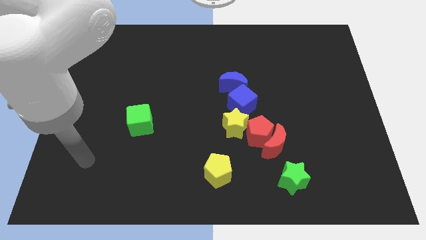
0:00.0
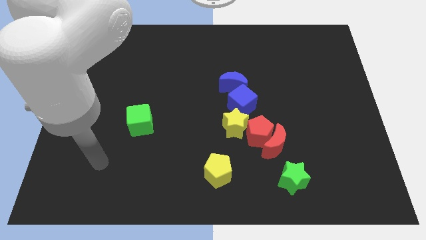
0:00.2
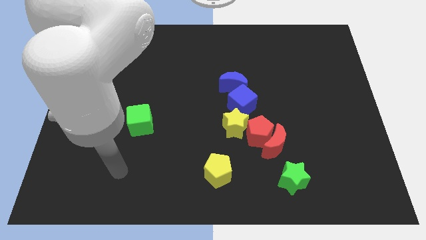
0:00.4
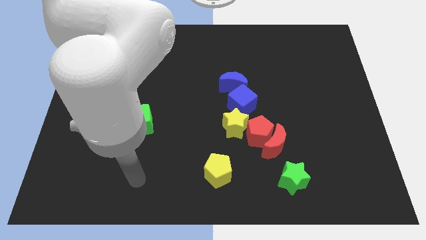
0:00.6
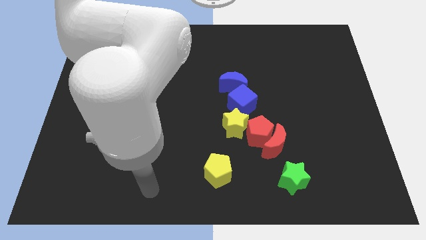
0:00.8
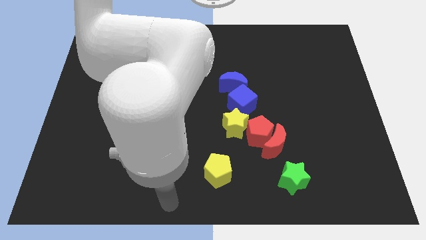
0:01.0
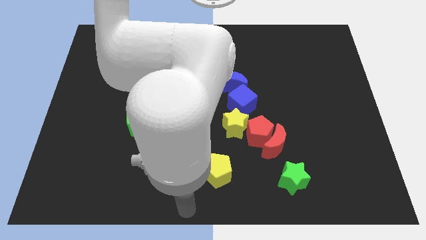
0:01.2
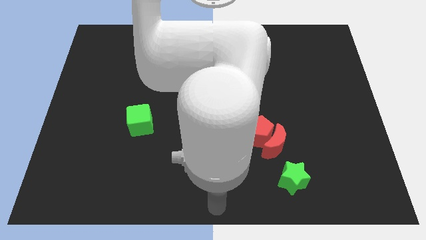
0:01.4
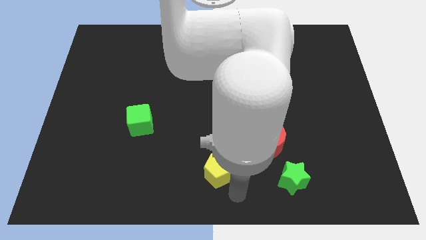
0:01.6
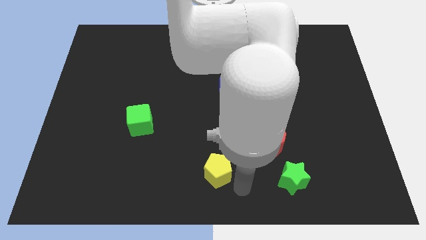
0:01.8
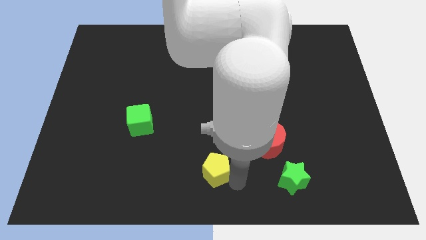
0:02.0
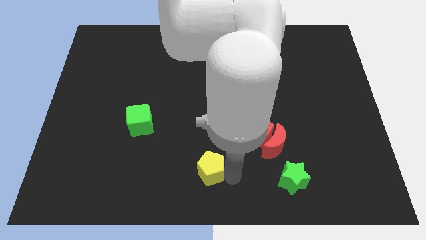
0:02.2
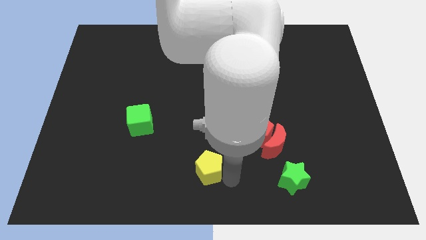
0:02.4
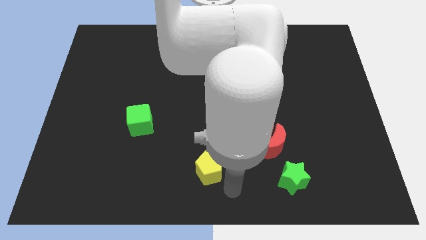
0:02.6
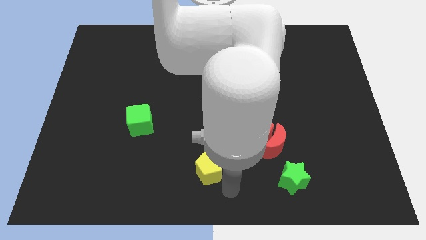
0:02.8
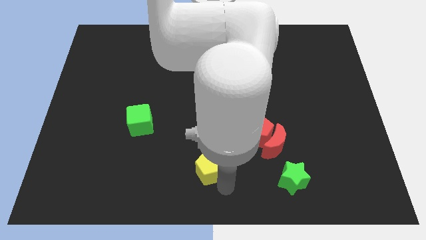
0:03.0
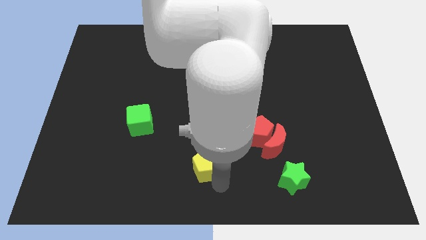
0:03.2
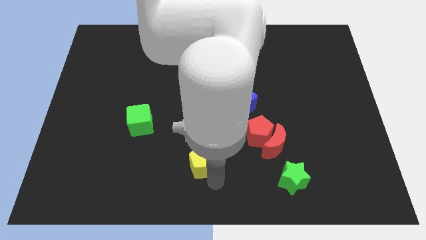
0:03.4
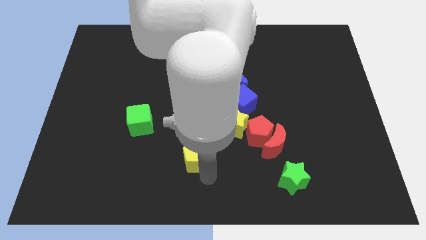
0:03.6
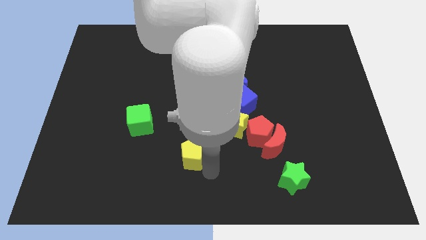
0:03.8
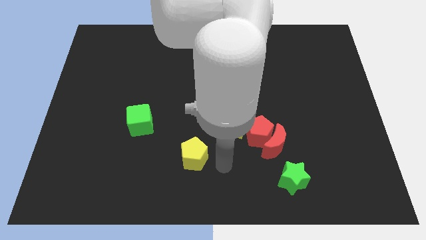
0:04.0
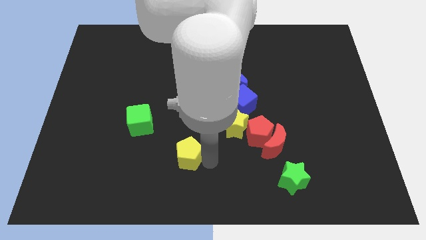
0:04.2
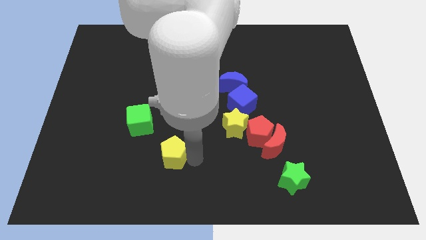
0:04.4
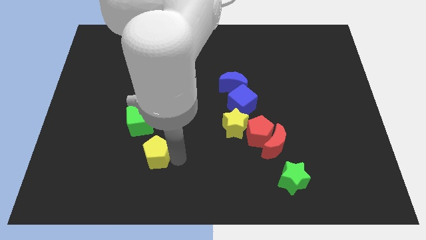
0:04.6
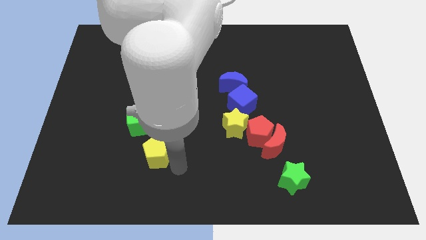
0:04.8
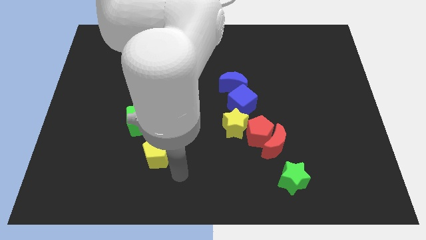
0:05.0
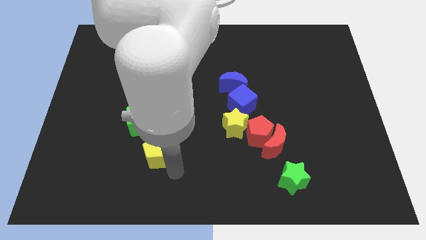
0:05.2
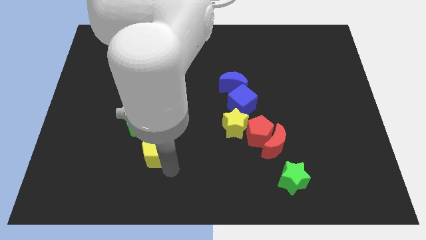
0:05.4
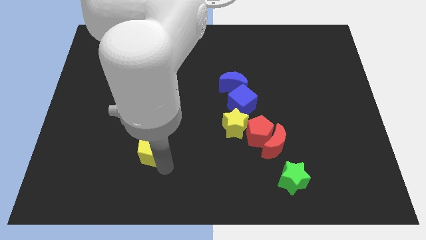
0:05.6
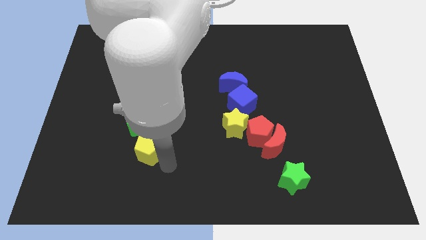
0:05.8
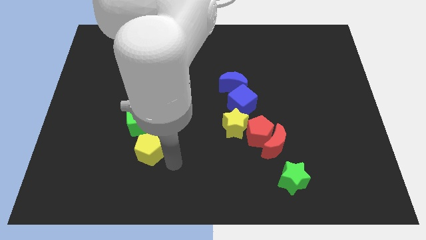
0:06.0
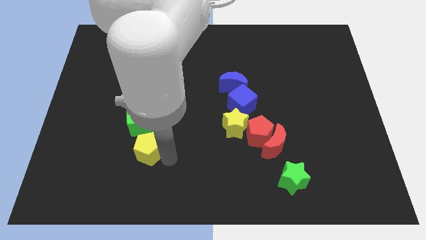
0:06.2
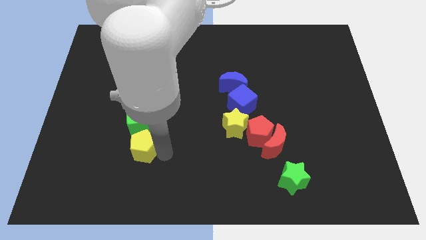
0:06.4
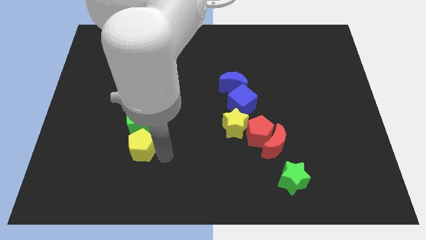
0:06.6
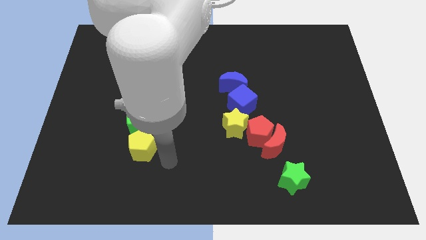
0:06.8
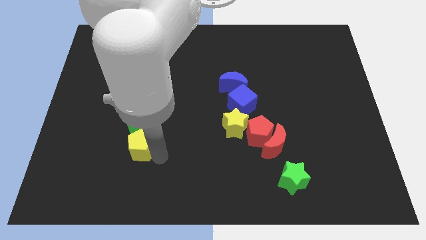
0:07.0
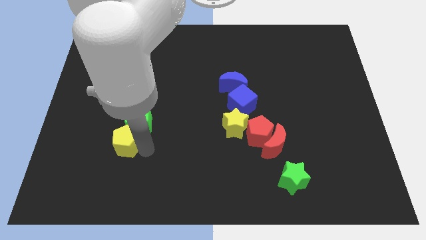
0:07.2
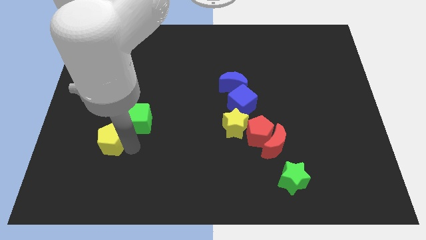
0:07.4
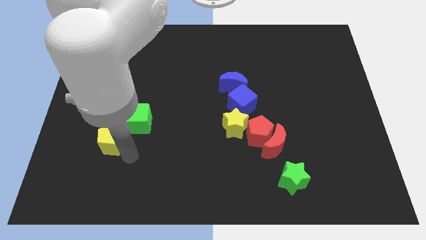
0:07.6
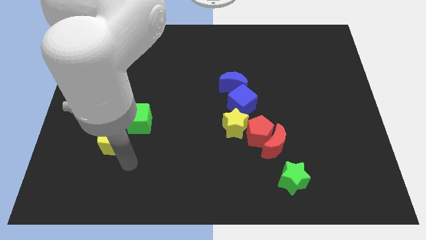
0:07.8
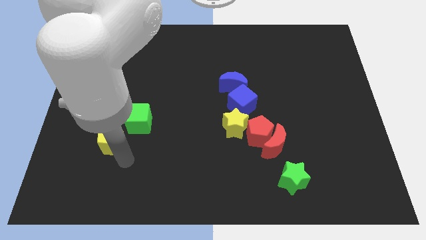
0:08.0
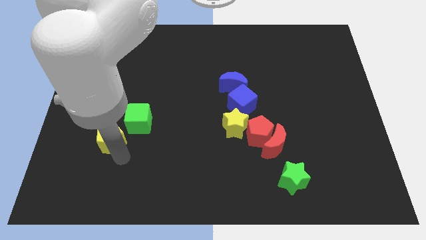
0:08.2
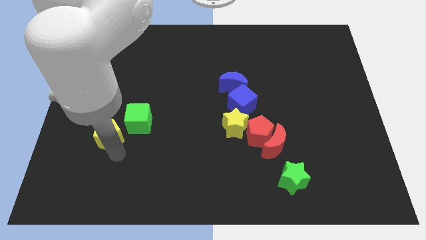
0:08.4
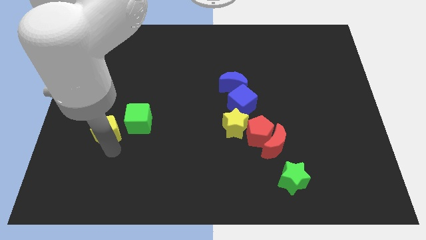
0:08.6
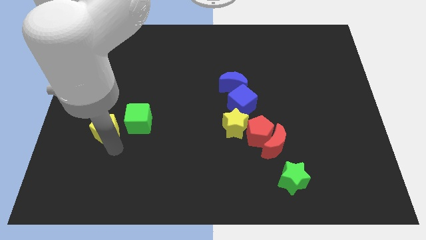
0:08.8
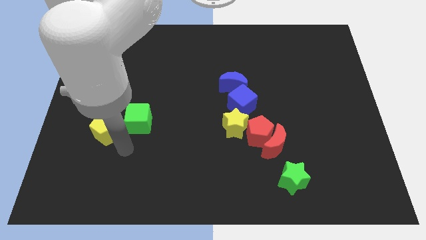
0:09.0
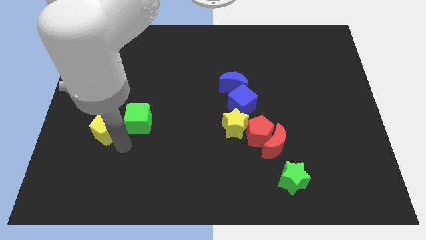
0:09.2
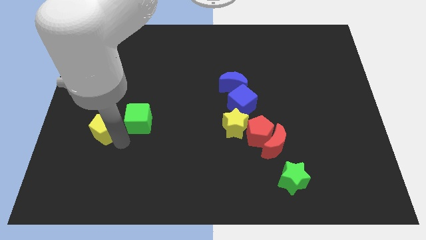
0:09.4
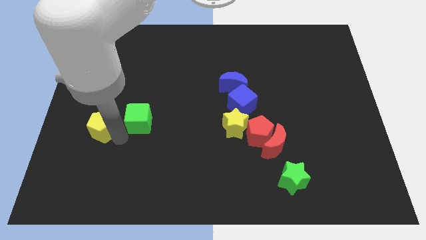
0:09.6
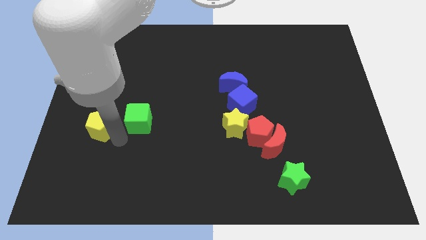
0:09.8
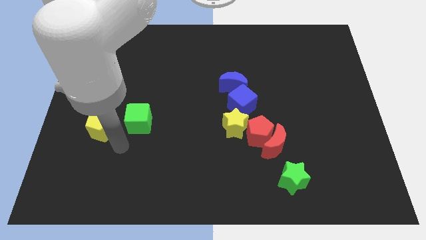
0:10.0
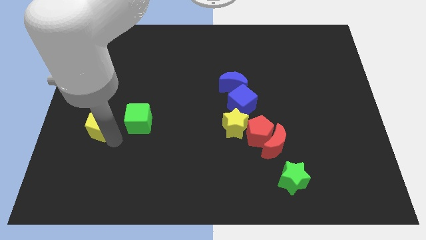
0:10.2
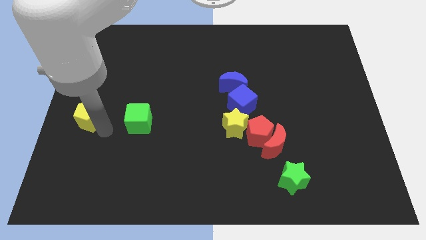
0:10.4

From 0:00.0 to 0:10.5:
put the yellow pentagon to the left side of the board

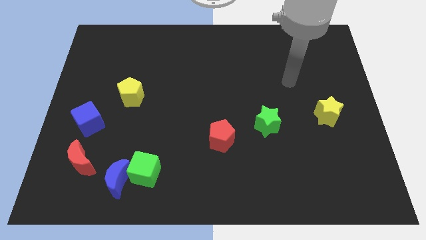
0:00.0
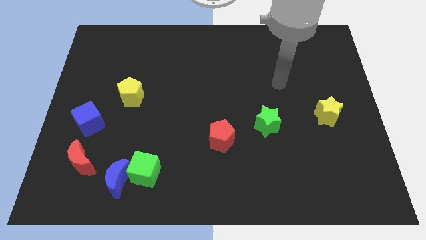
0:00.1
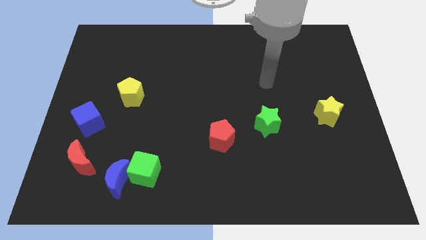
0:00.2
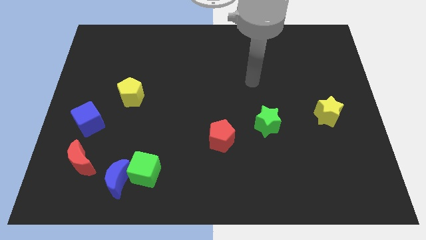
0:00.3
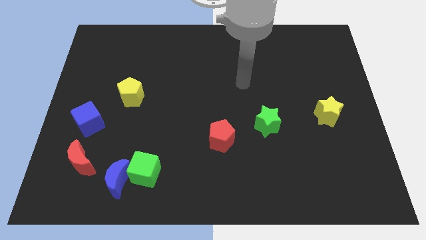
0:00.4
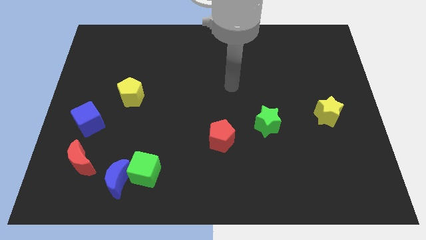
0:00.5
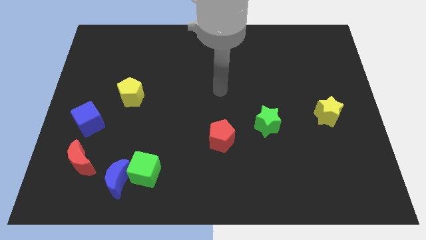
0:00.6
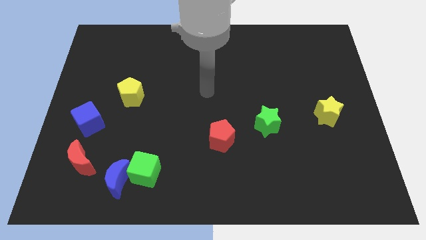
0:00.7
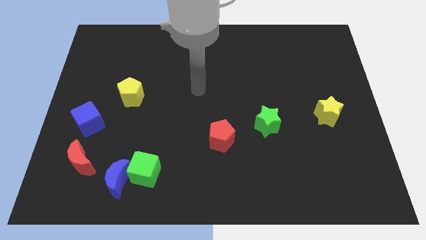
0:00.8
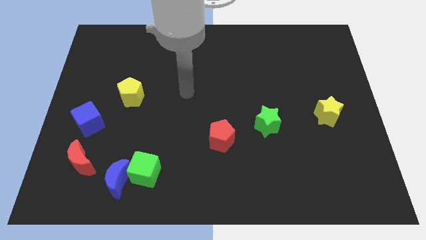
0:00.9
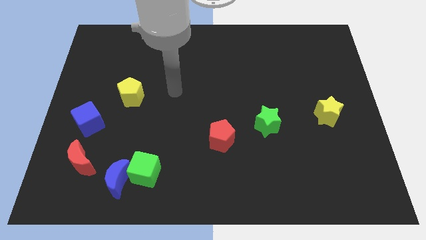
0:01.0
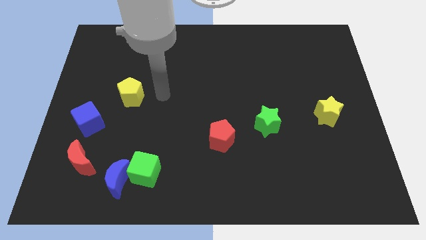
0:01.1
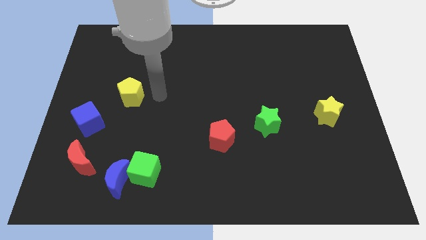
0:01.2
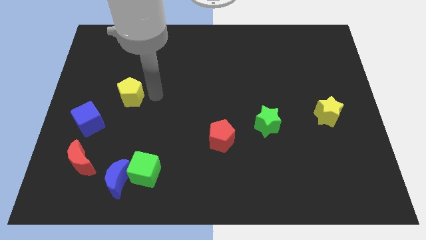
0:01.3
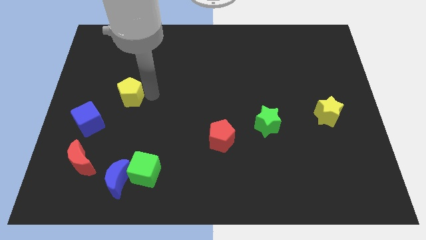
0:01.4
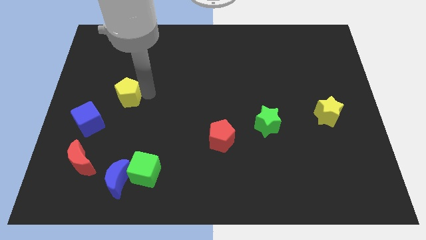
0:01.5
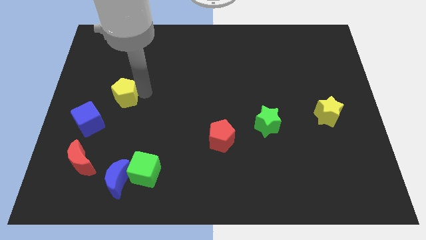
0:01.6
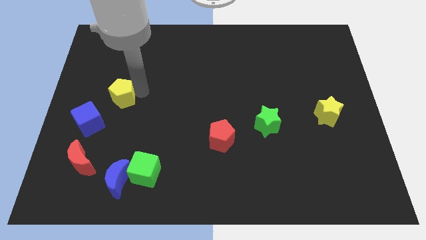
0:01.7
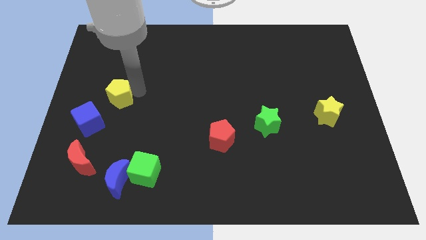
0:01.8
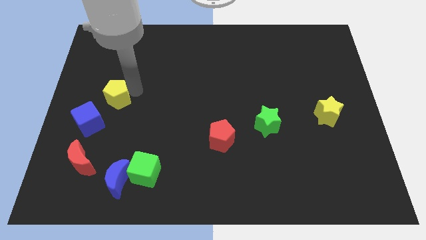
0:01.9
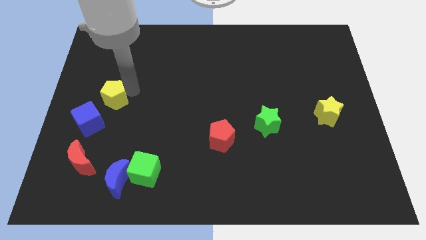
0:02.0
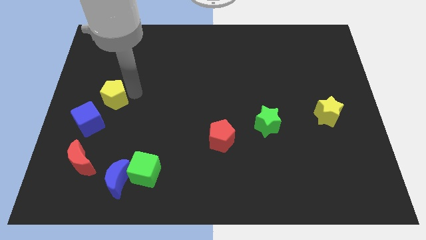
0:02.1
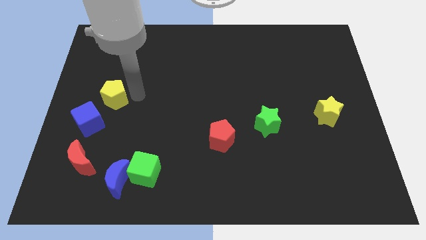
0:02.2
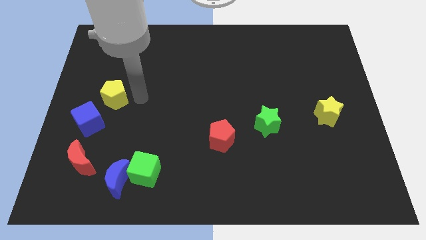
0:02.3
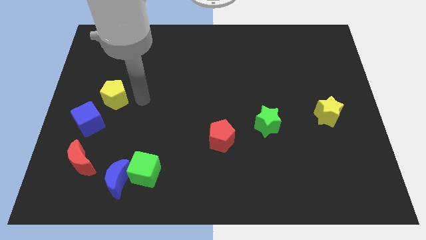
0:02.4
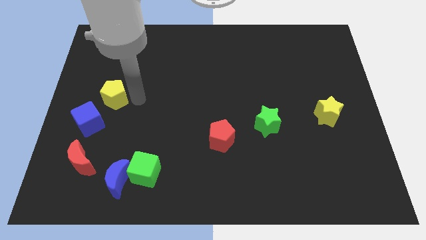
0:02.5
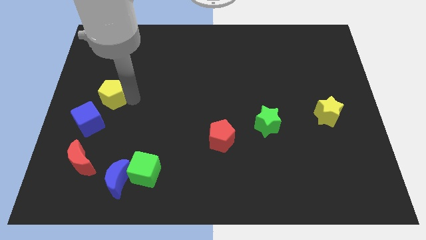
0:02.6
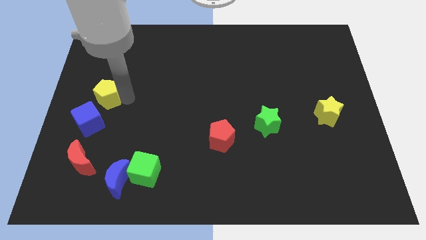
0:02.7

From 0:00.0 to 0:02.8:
push the yellow pentagon to the left side
